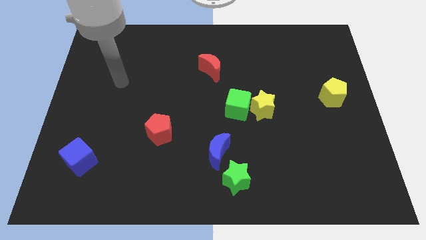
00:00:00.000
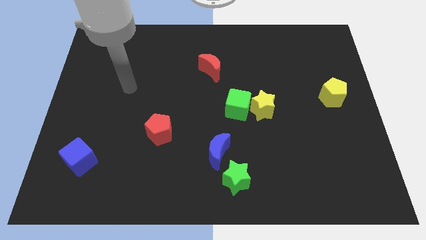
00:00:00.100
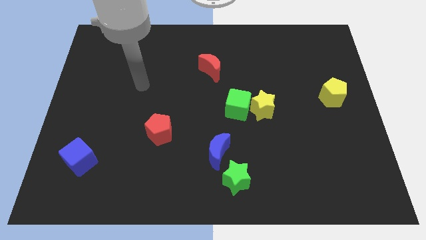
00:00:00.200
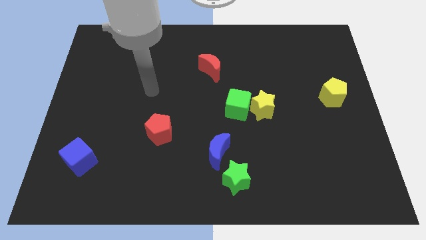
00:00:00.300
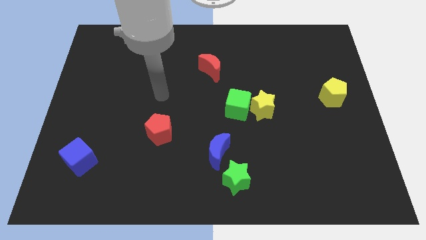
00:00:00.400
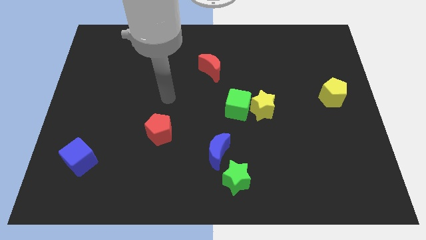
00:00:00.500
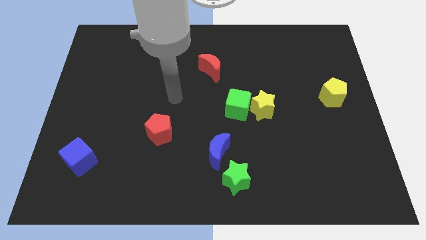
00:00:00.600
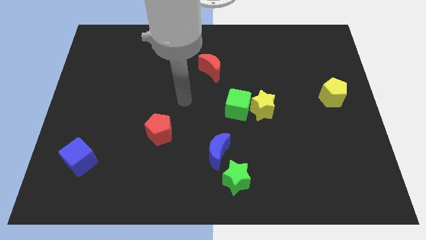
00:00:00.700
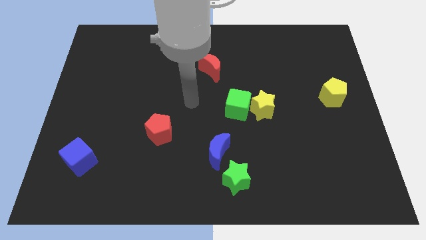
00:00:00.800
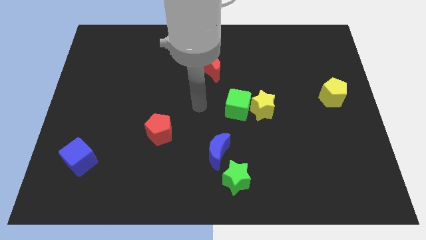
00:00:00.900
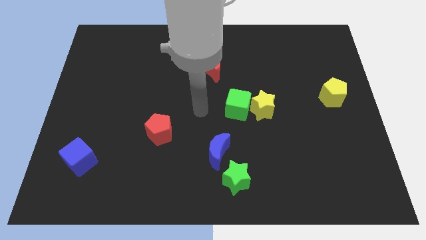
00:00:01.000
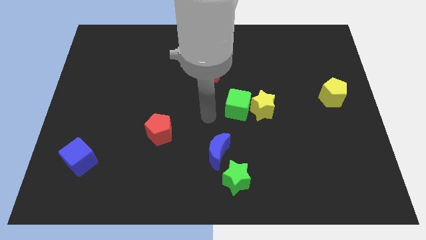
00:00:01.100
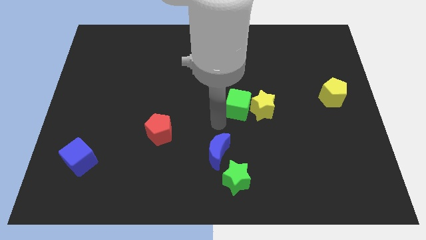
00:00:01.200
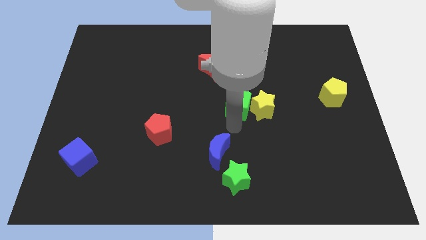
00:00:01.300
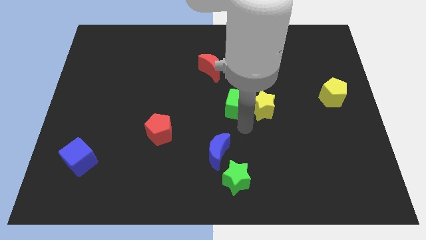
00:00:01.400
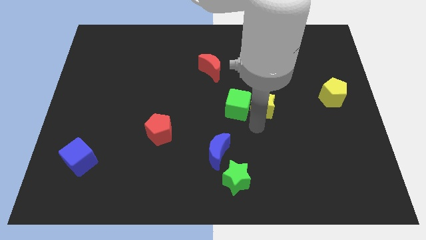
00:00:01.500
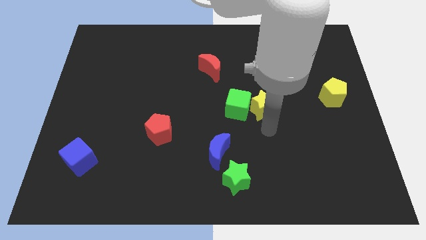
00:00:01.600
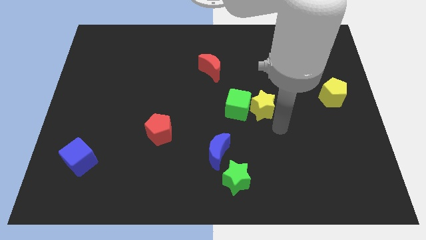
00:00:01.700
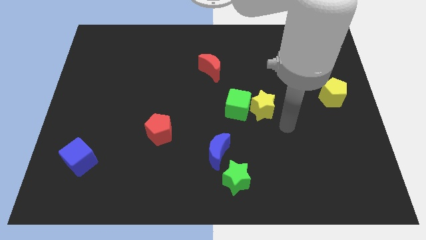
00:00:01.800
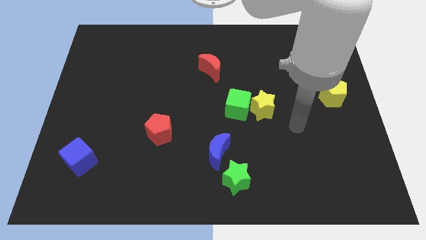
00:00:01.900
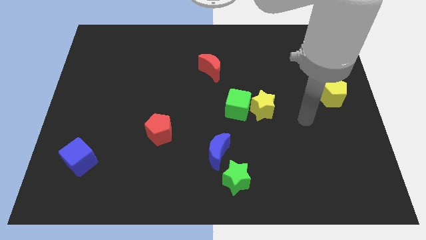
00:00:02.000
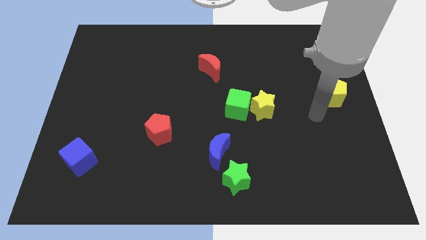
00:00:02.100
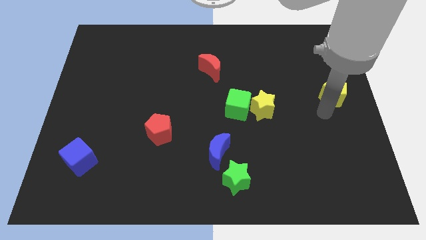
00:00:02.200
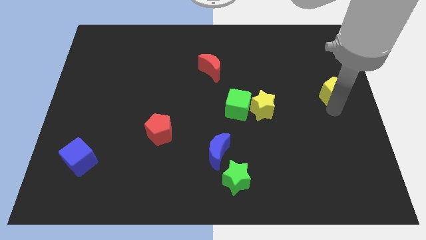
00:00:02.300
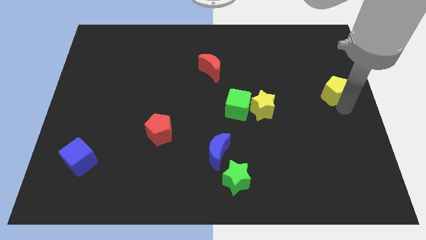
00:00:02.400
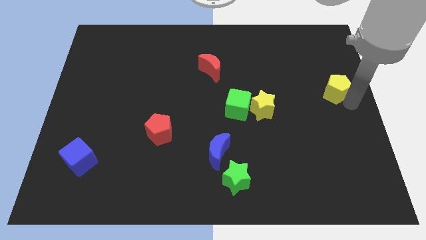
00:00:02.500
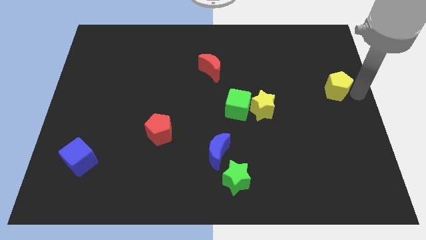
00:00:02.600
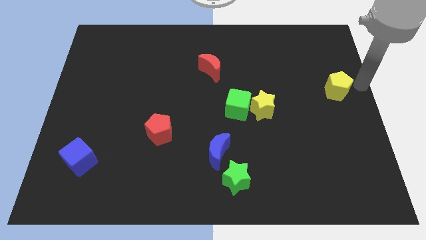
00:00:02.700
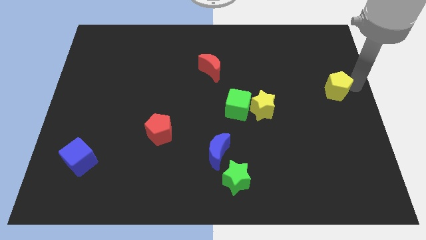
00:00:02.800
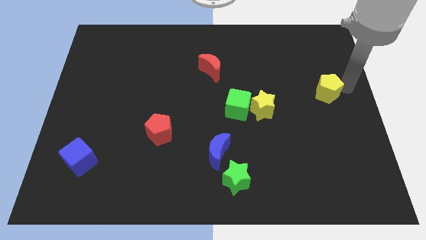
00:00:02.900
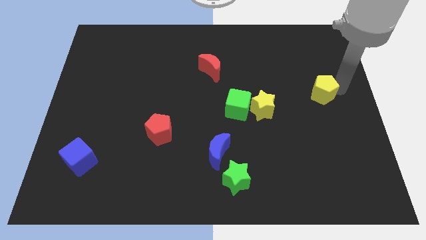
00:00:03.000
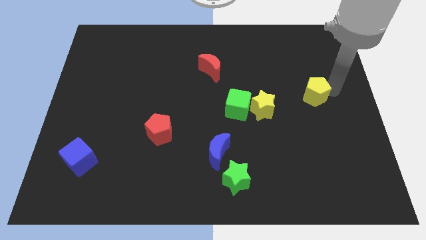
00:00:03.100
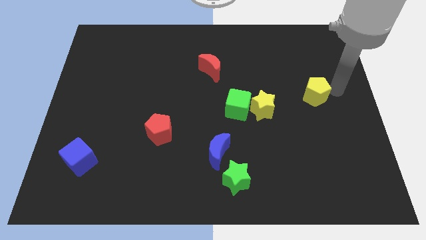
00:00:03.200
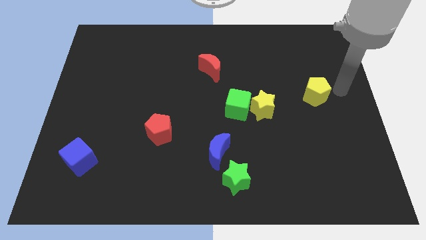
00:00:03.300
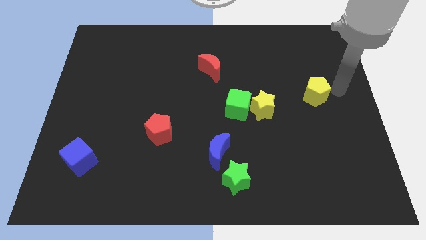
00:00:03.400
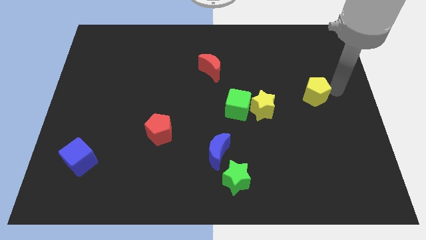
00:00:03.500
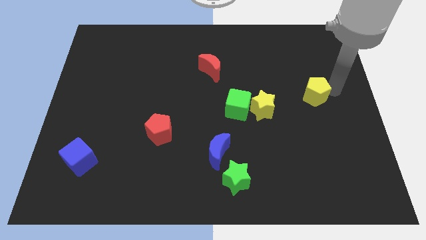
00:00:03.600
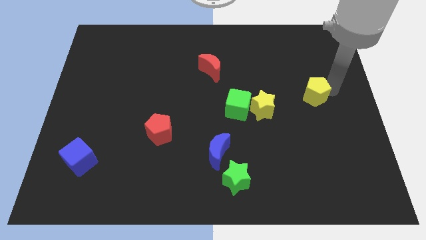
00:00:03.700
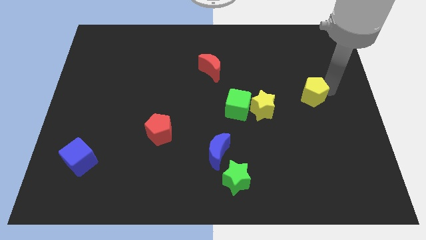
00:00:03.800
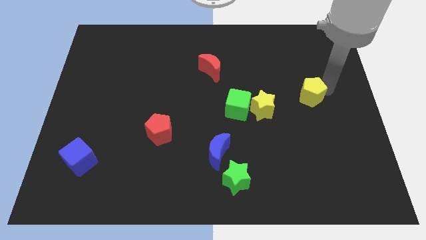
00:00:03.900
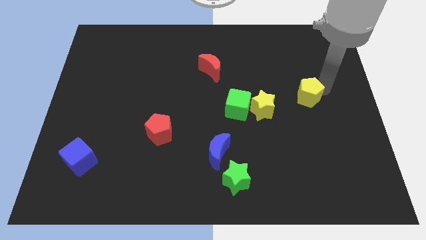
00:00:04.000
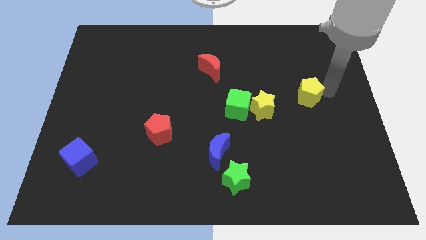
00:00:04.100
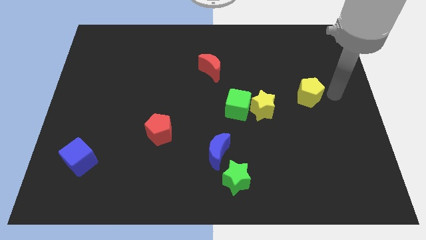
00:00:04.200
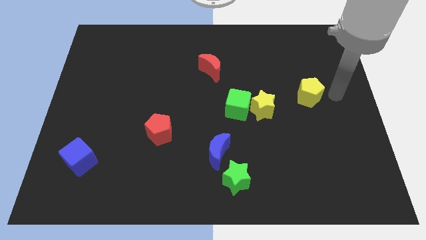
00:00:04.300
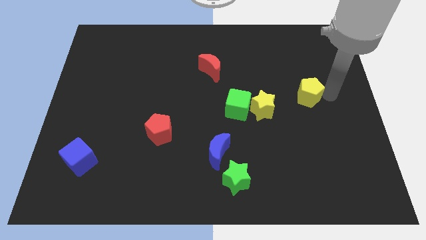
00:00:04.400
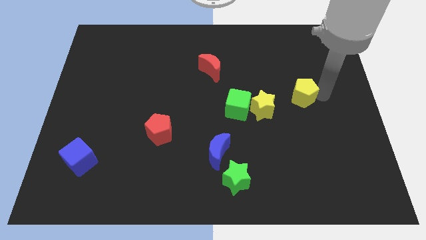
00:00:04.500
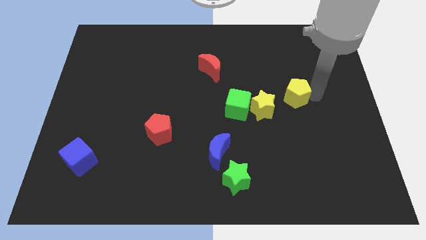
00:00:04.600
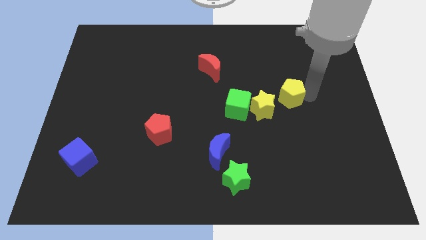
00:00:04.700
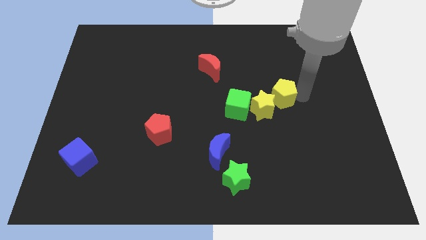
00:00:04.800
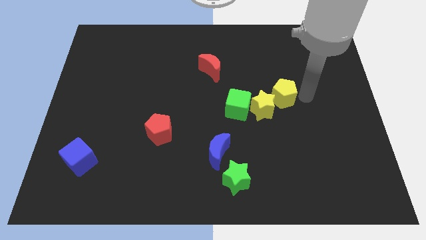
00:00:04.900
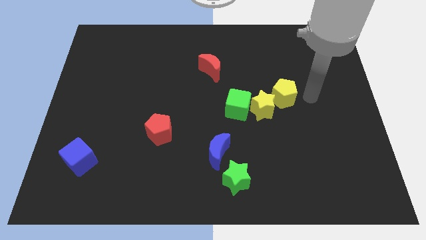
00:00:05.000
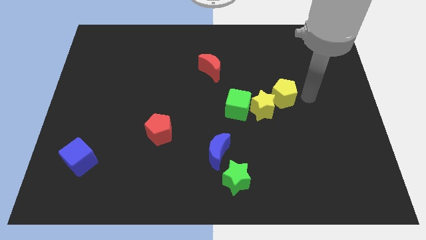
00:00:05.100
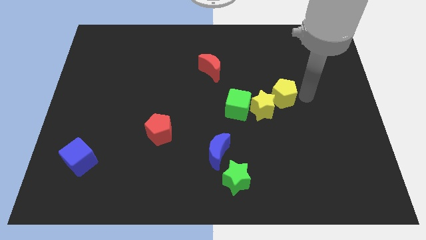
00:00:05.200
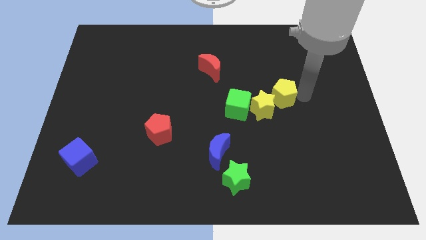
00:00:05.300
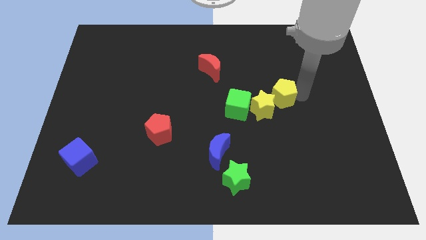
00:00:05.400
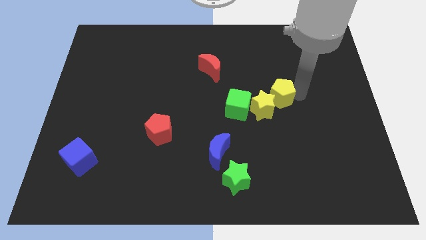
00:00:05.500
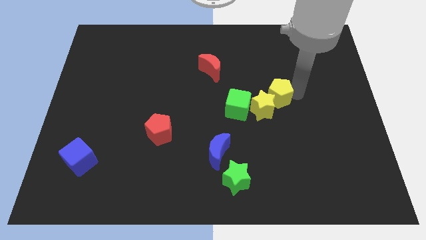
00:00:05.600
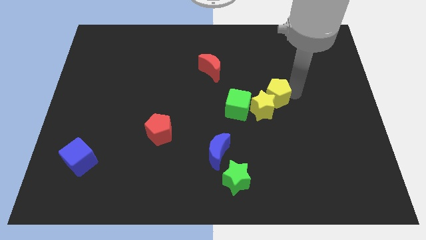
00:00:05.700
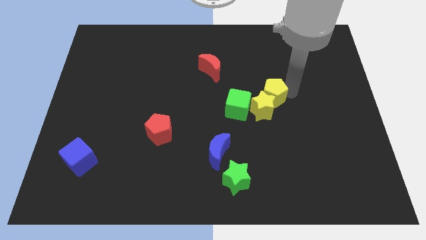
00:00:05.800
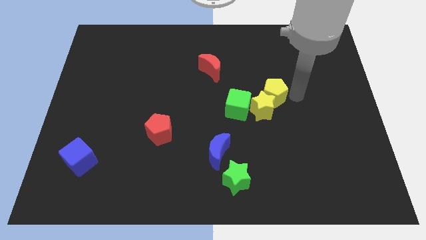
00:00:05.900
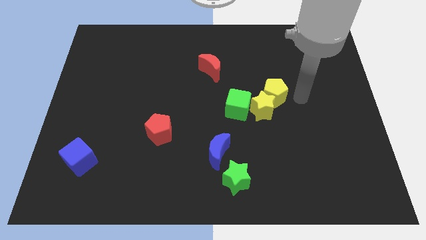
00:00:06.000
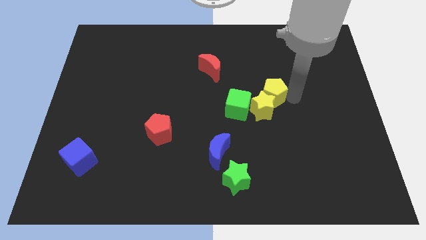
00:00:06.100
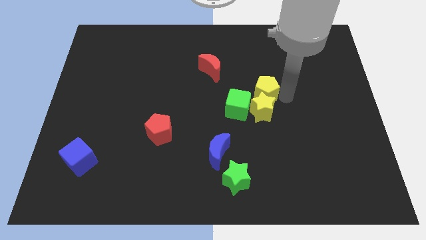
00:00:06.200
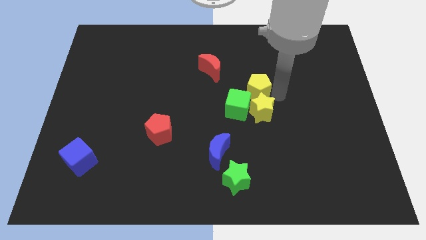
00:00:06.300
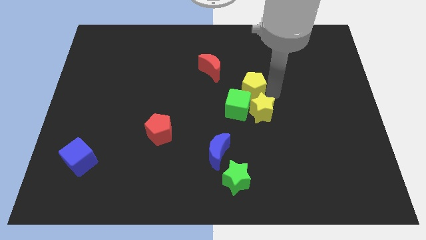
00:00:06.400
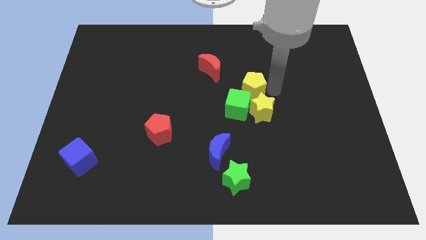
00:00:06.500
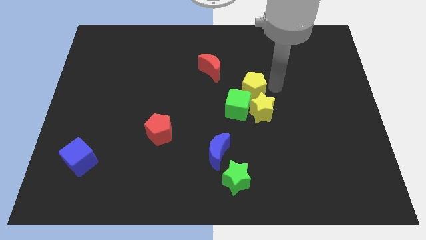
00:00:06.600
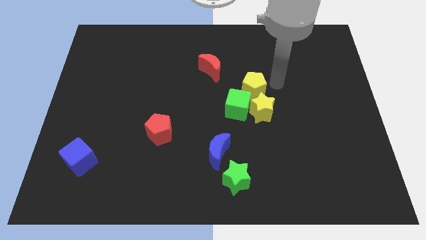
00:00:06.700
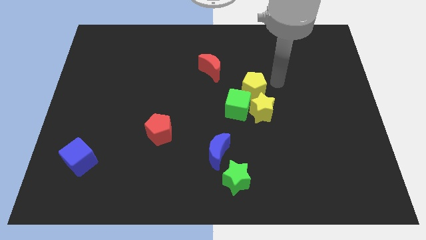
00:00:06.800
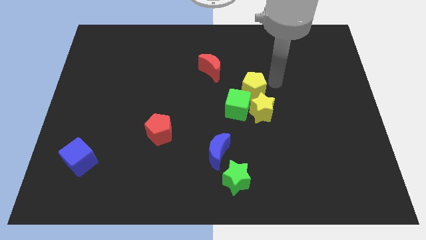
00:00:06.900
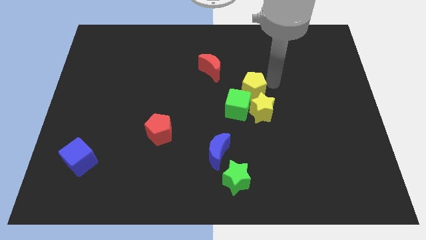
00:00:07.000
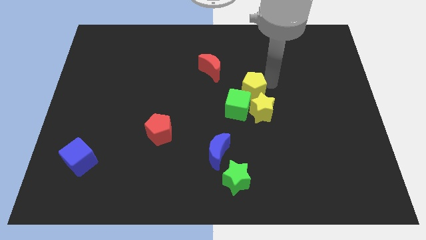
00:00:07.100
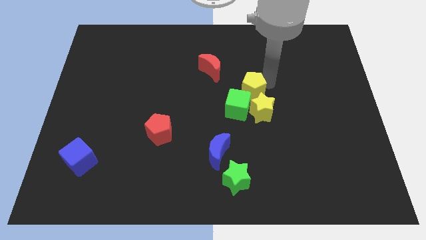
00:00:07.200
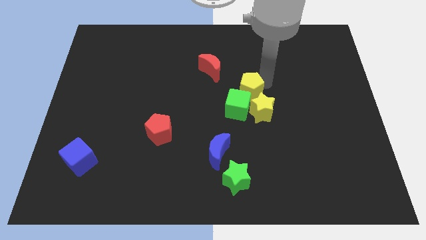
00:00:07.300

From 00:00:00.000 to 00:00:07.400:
push the yellow pentagon left

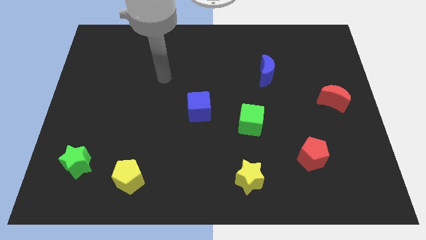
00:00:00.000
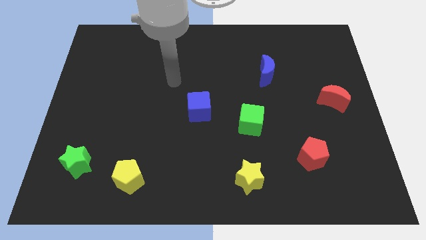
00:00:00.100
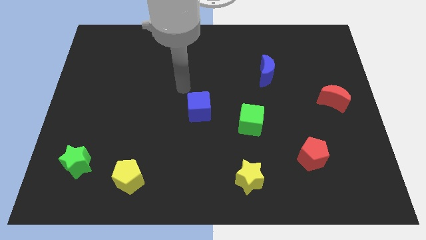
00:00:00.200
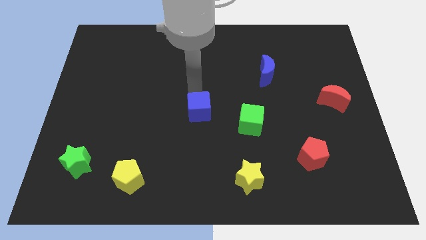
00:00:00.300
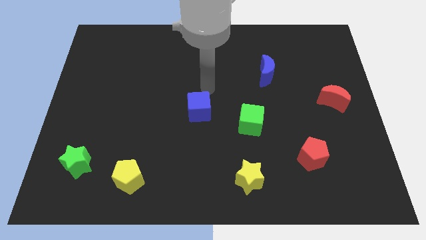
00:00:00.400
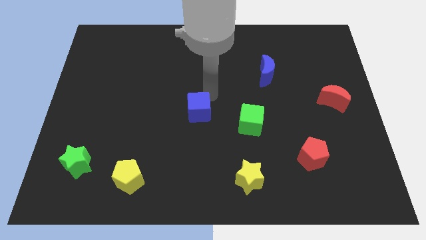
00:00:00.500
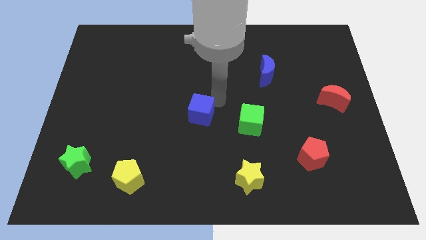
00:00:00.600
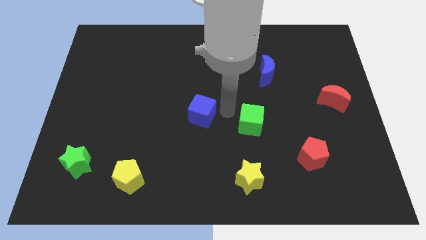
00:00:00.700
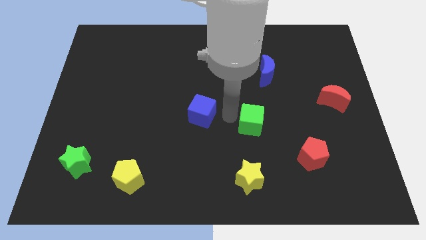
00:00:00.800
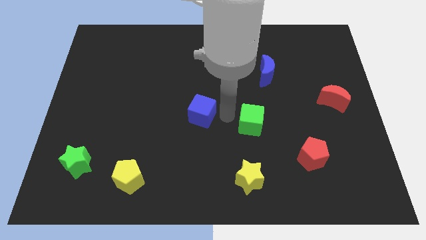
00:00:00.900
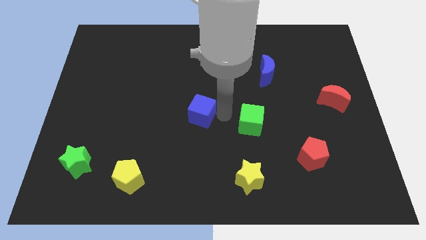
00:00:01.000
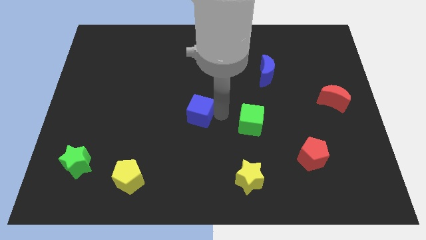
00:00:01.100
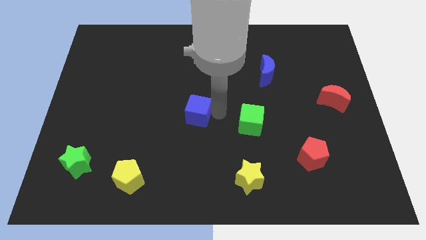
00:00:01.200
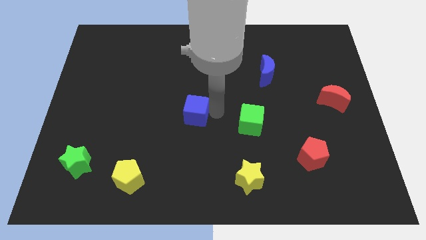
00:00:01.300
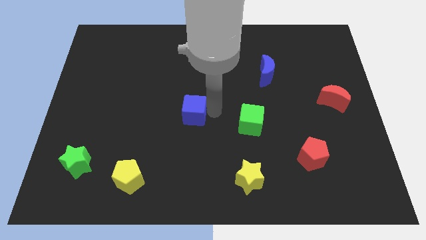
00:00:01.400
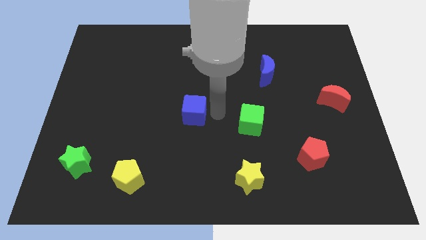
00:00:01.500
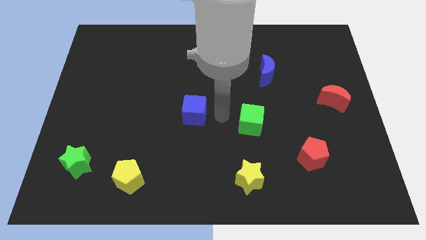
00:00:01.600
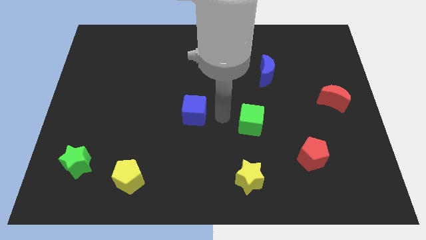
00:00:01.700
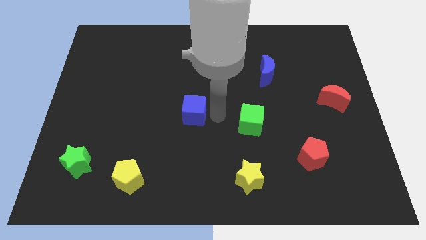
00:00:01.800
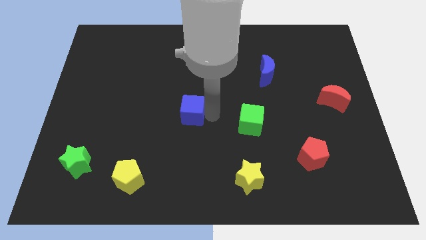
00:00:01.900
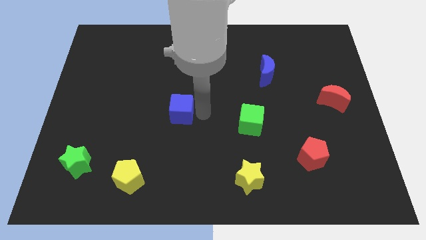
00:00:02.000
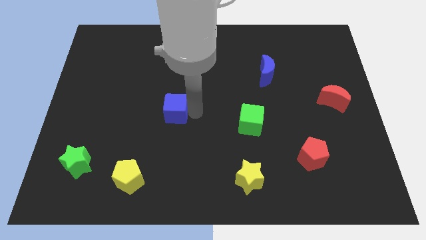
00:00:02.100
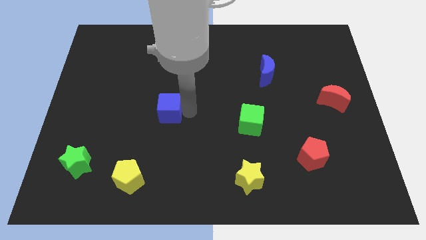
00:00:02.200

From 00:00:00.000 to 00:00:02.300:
slightly push the blue cube to the left
